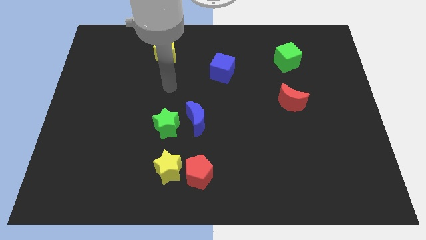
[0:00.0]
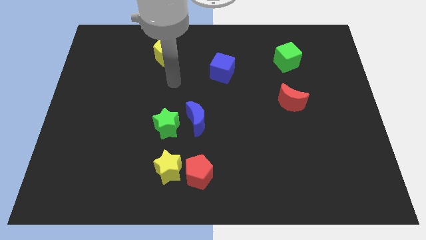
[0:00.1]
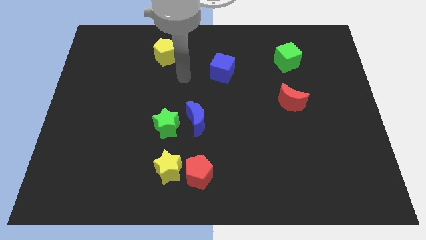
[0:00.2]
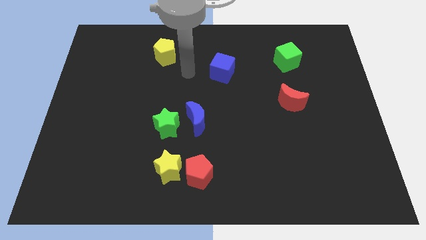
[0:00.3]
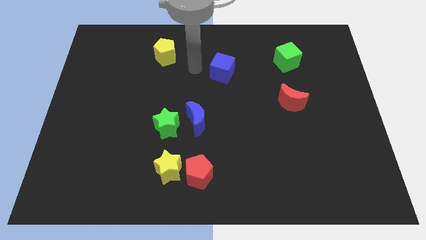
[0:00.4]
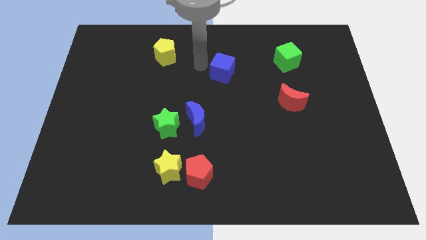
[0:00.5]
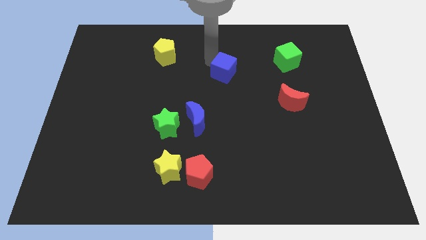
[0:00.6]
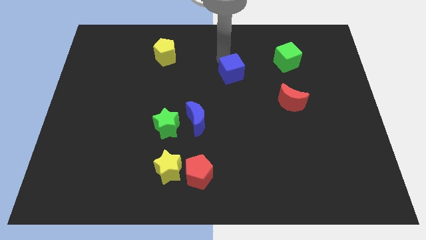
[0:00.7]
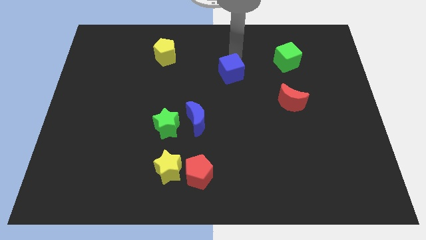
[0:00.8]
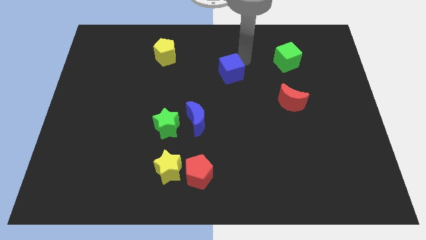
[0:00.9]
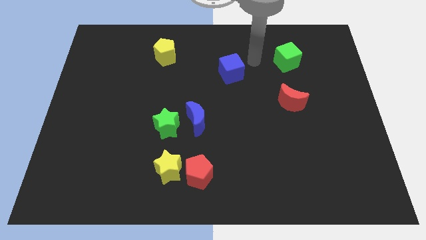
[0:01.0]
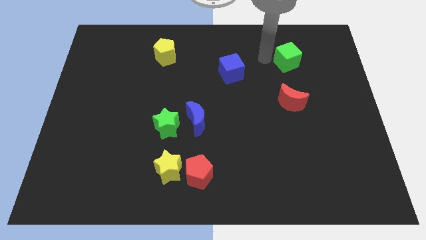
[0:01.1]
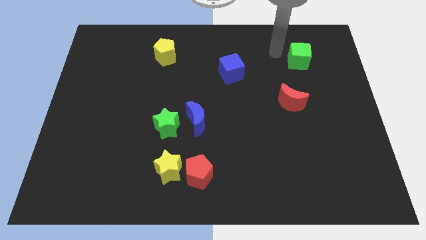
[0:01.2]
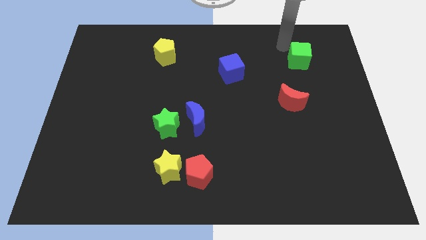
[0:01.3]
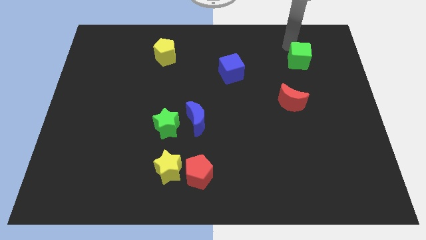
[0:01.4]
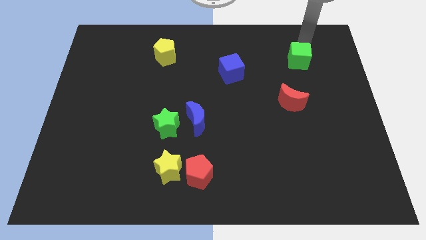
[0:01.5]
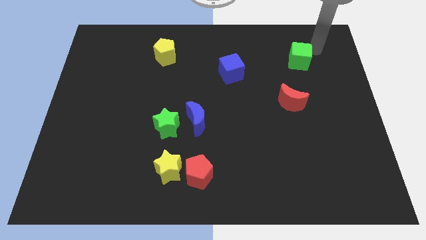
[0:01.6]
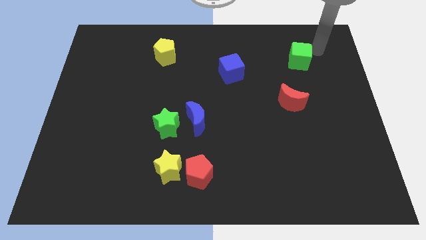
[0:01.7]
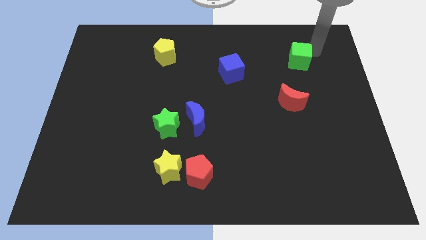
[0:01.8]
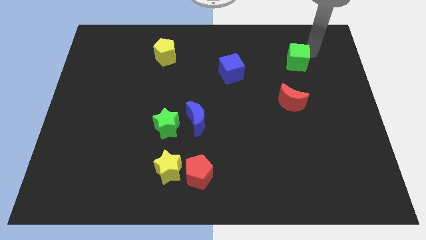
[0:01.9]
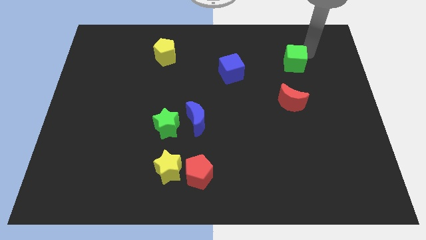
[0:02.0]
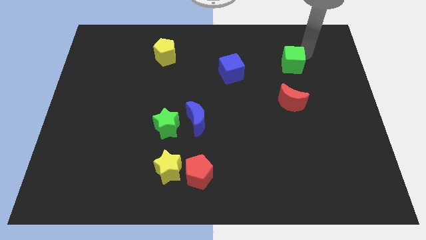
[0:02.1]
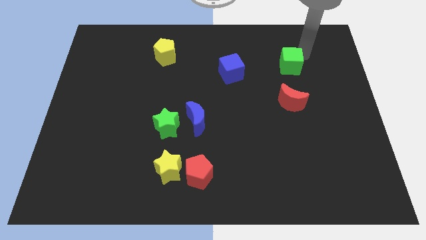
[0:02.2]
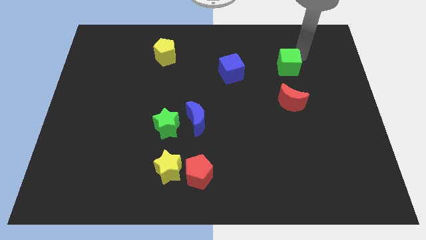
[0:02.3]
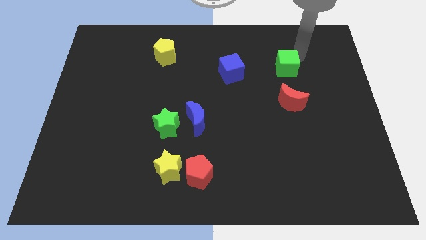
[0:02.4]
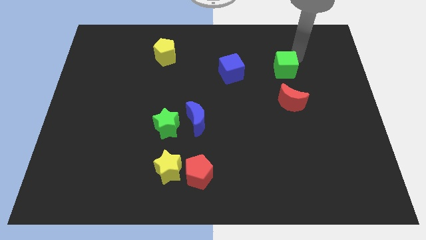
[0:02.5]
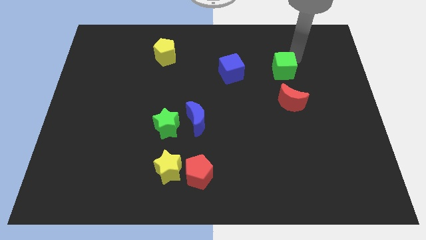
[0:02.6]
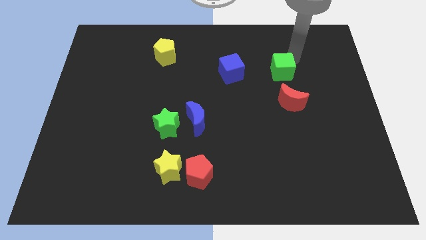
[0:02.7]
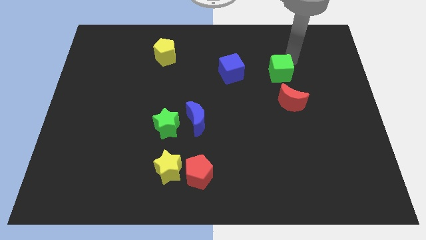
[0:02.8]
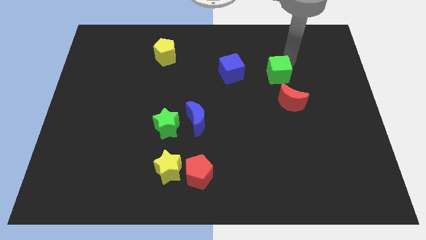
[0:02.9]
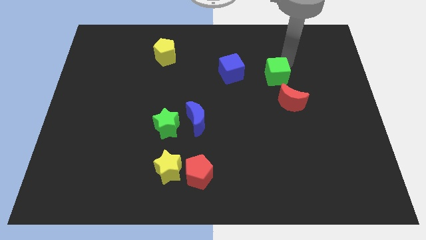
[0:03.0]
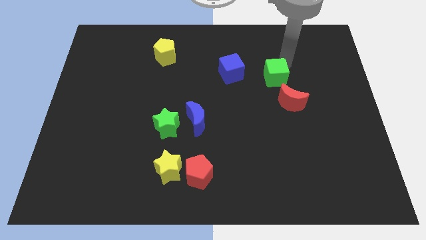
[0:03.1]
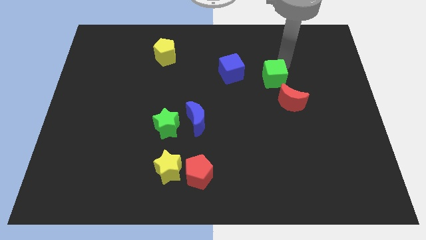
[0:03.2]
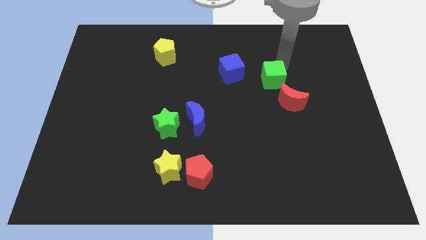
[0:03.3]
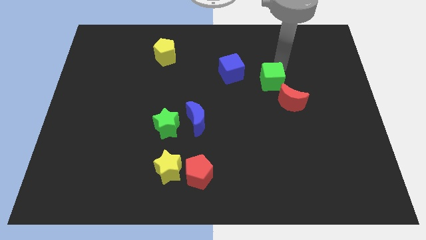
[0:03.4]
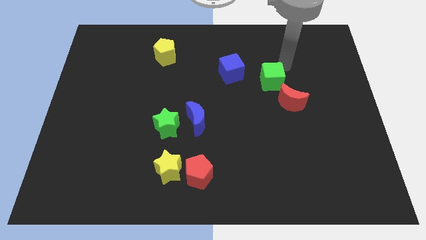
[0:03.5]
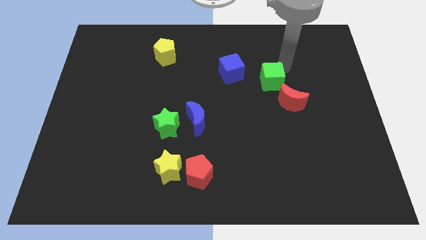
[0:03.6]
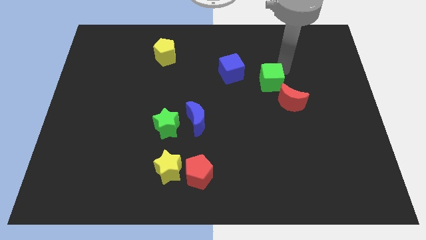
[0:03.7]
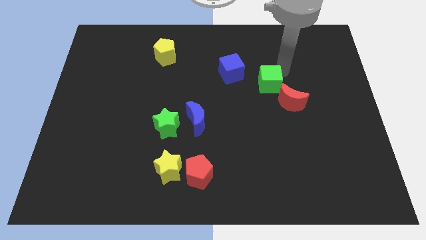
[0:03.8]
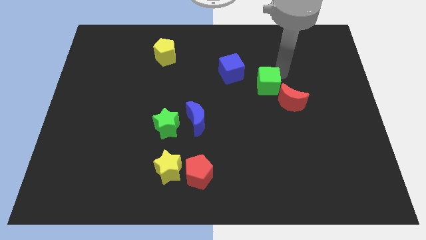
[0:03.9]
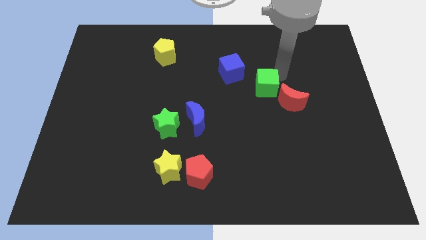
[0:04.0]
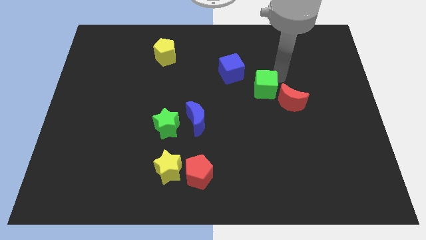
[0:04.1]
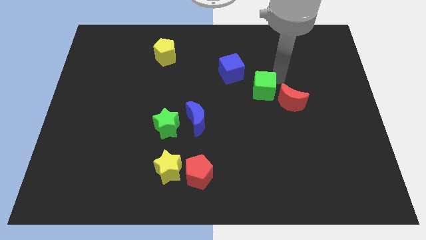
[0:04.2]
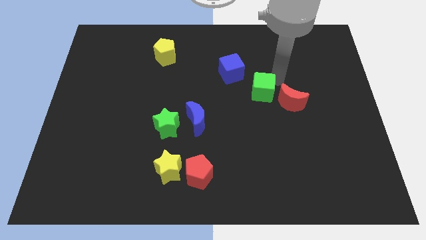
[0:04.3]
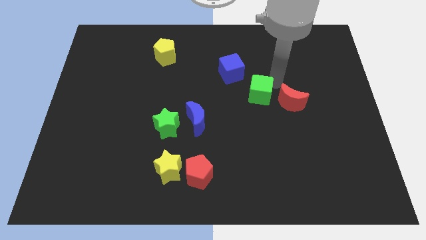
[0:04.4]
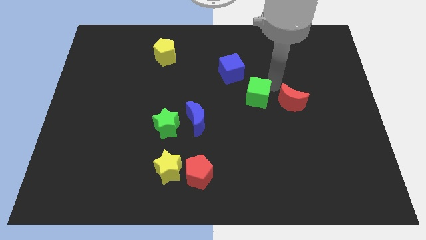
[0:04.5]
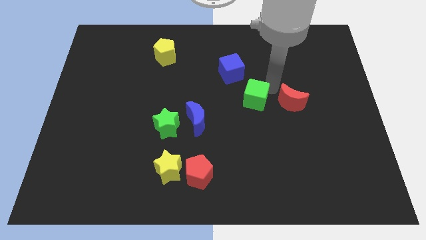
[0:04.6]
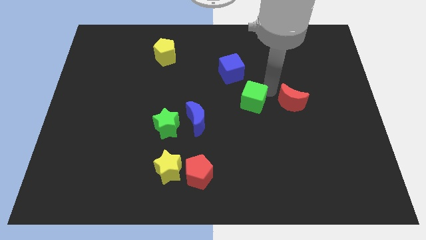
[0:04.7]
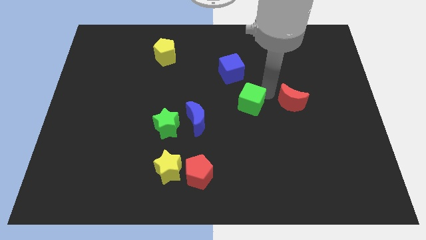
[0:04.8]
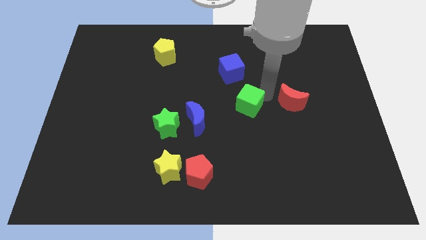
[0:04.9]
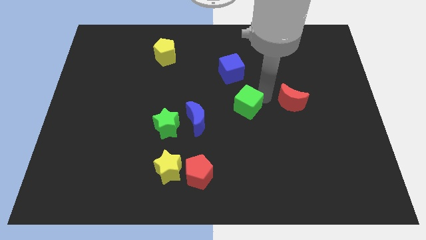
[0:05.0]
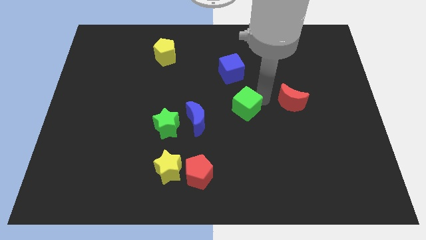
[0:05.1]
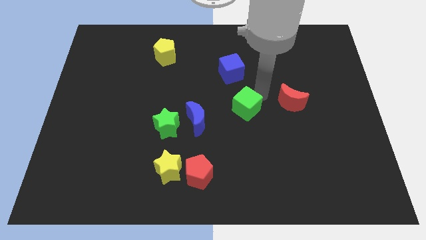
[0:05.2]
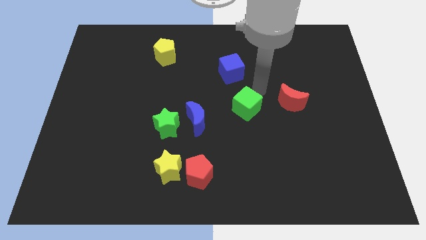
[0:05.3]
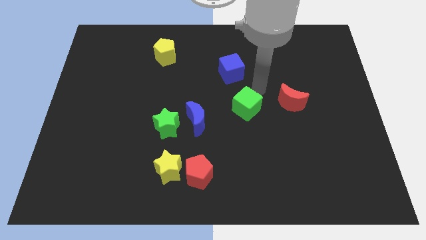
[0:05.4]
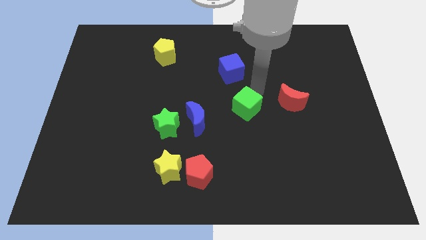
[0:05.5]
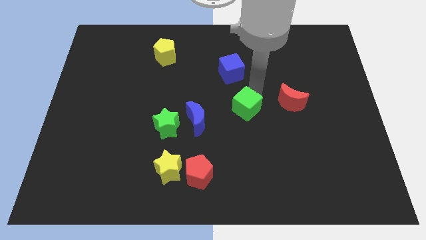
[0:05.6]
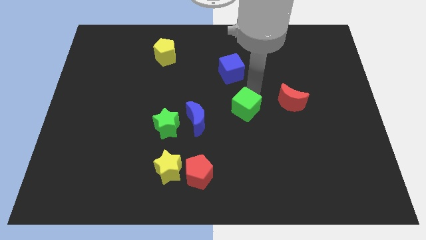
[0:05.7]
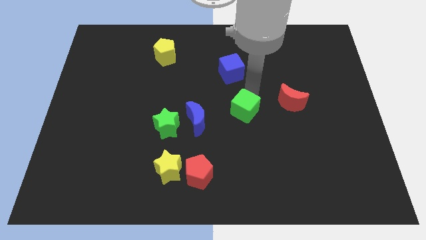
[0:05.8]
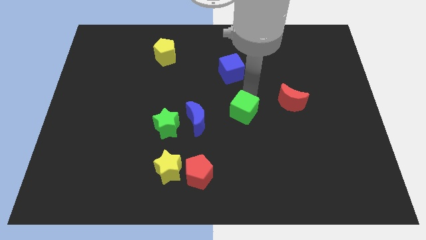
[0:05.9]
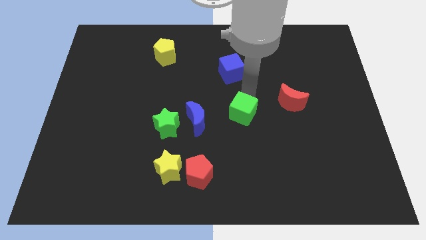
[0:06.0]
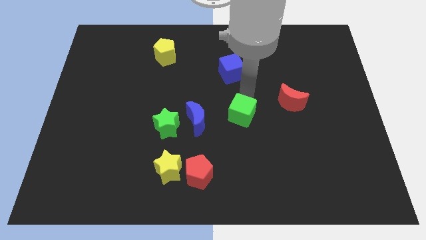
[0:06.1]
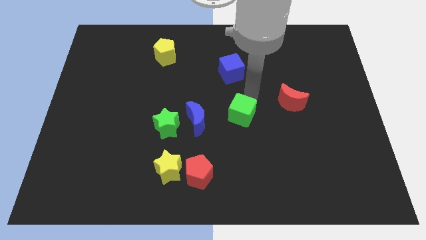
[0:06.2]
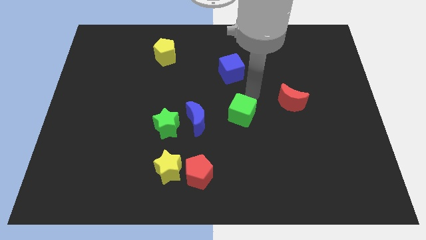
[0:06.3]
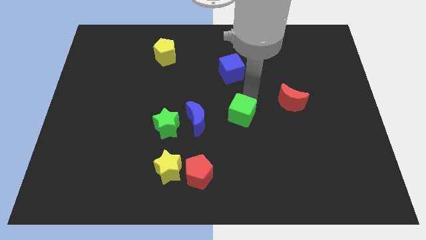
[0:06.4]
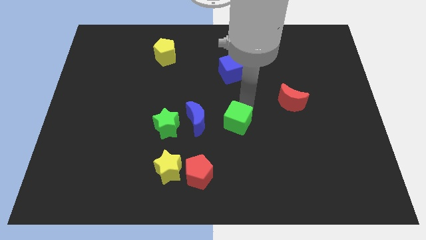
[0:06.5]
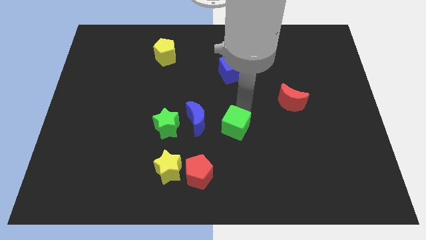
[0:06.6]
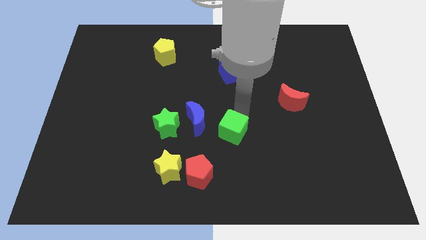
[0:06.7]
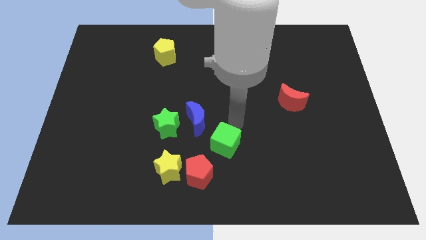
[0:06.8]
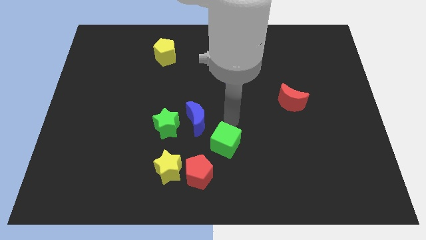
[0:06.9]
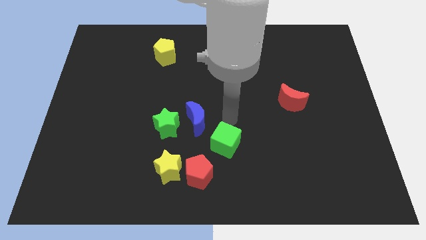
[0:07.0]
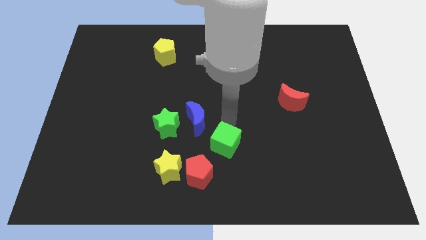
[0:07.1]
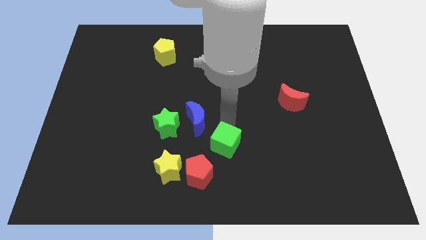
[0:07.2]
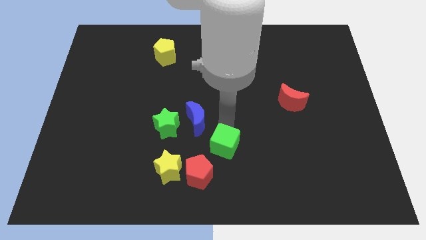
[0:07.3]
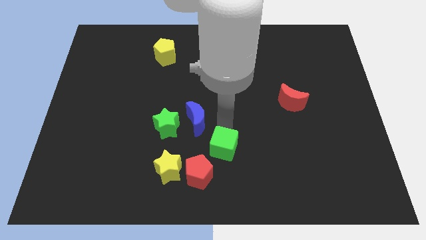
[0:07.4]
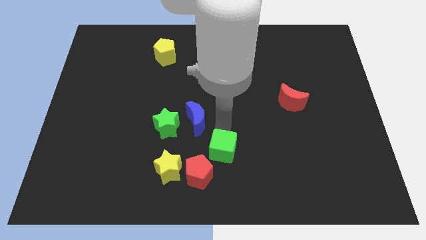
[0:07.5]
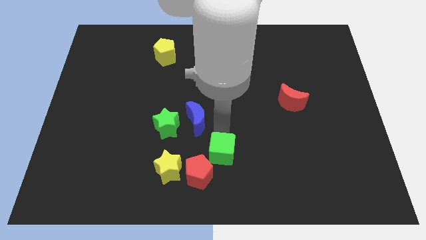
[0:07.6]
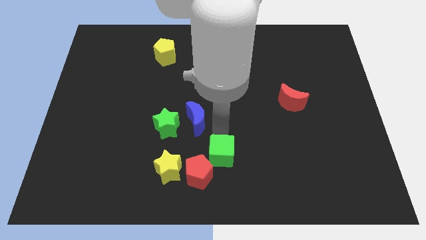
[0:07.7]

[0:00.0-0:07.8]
push the green cube to the bottom side
